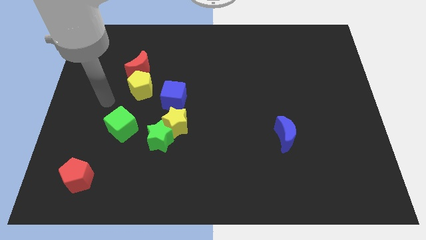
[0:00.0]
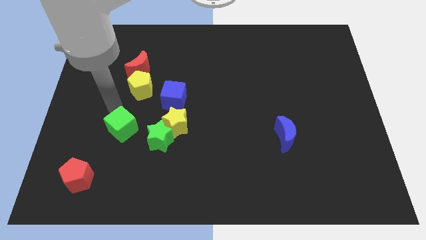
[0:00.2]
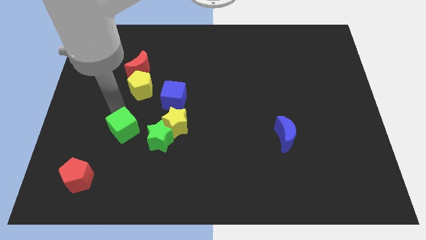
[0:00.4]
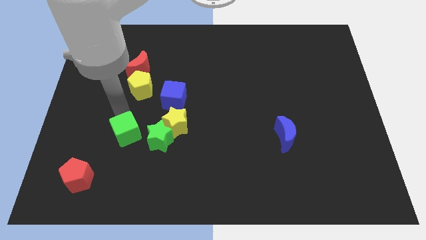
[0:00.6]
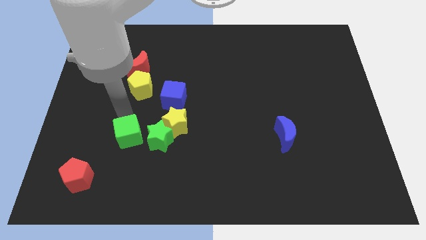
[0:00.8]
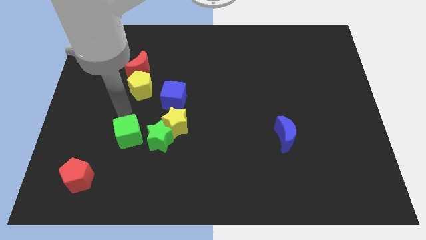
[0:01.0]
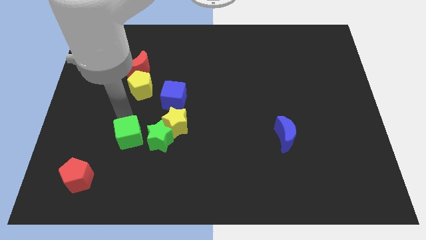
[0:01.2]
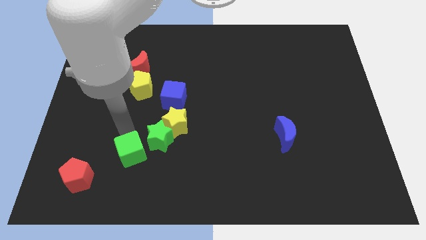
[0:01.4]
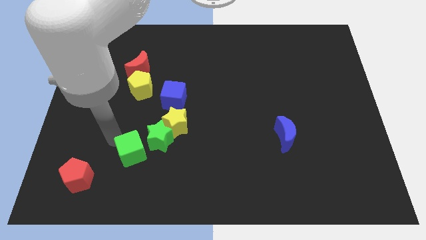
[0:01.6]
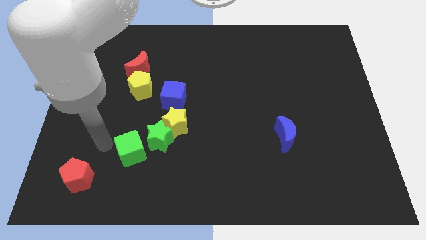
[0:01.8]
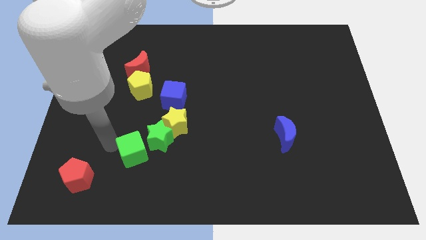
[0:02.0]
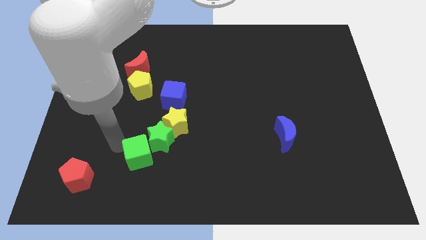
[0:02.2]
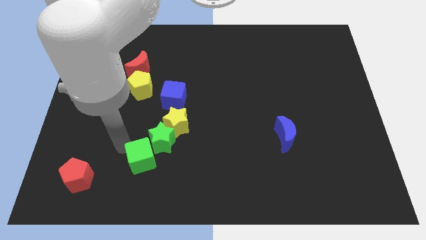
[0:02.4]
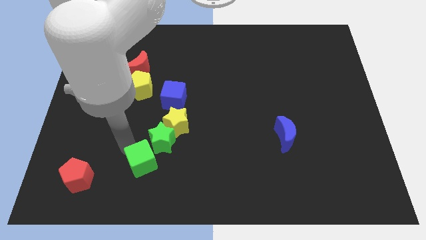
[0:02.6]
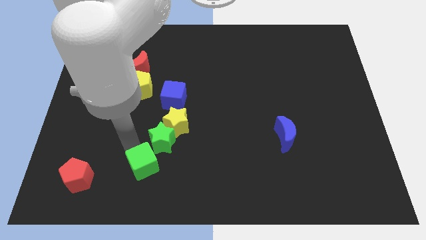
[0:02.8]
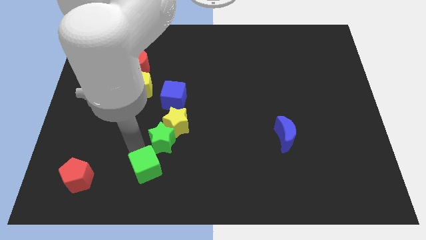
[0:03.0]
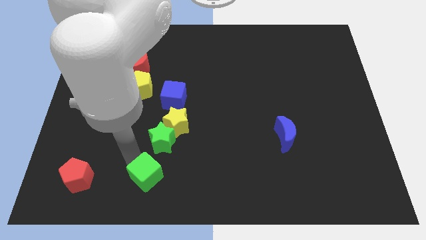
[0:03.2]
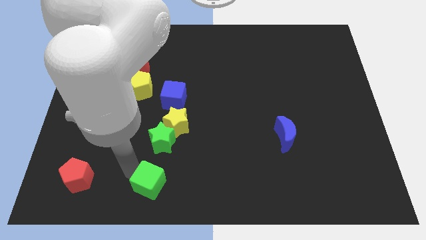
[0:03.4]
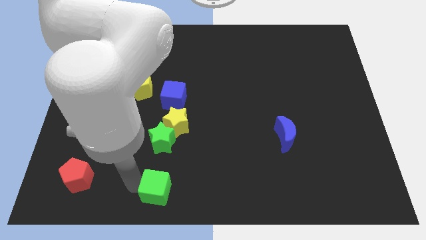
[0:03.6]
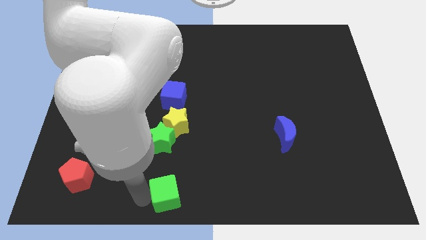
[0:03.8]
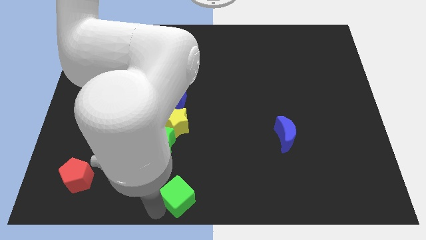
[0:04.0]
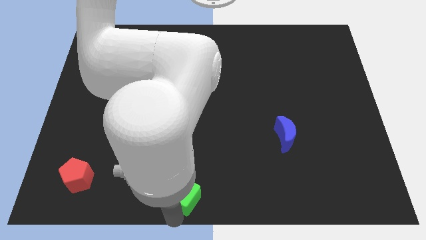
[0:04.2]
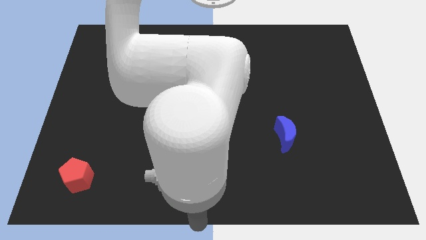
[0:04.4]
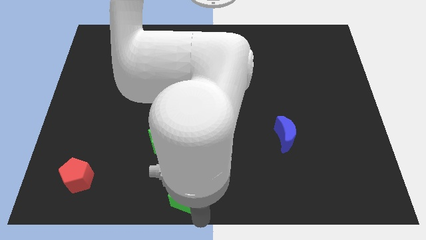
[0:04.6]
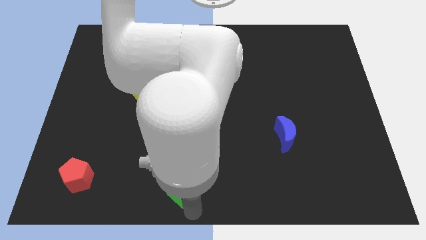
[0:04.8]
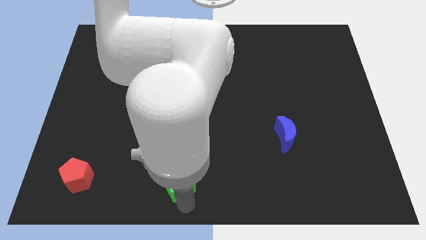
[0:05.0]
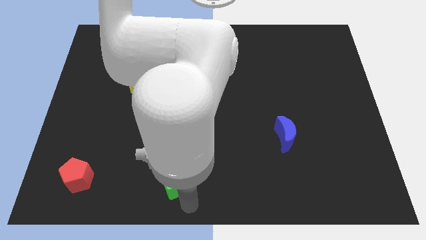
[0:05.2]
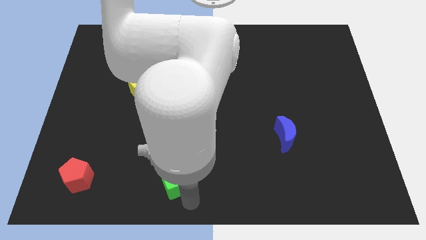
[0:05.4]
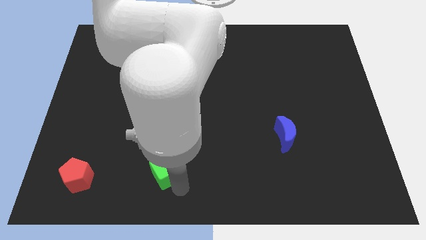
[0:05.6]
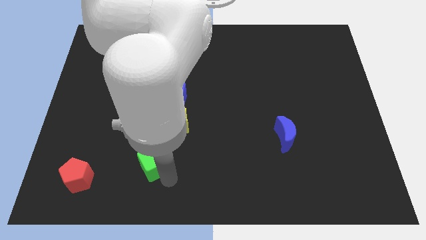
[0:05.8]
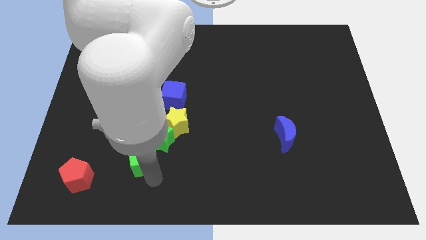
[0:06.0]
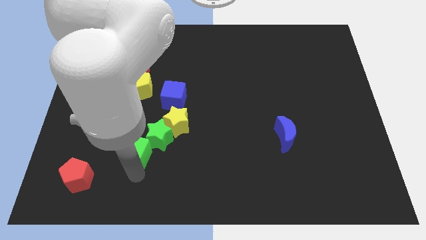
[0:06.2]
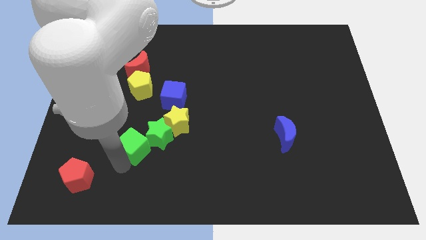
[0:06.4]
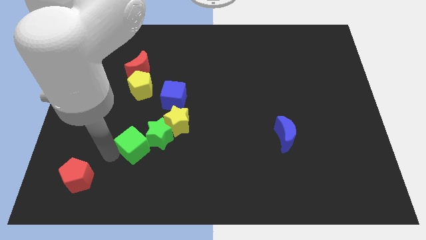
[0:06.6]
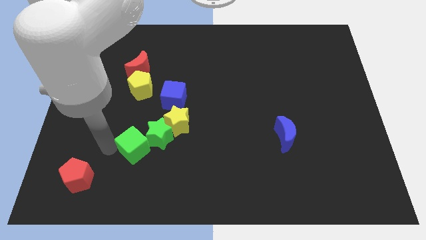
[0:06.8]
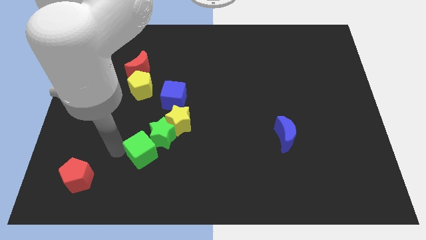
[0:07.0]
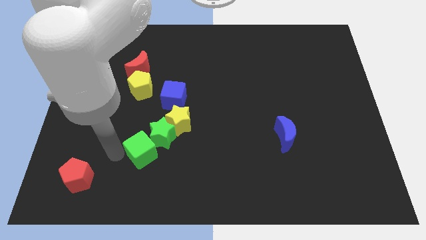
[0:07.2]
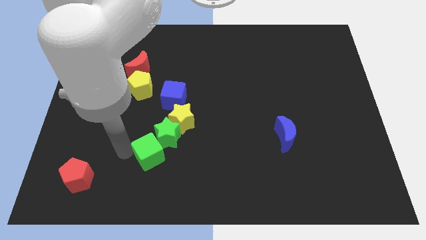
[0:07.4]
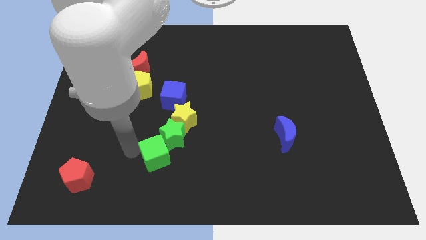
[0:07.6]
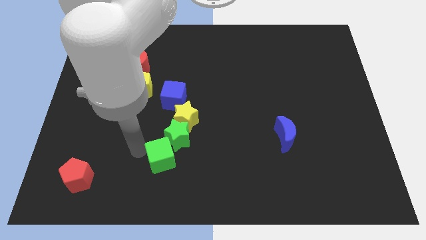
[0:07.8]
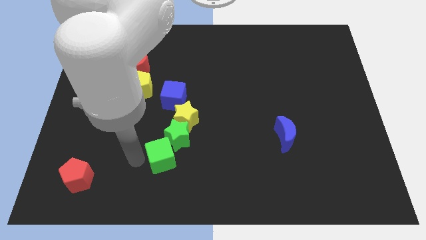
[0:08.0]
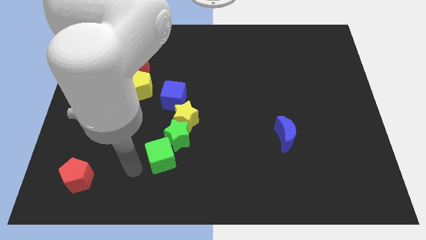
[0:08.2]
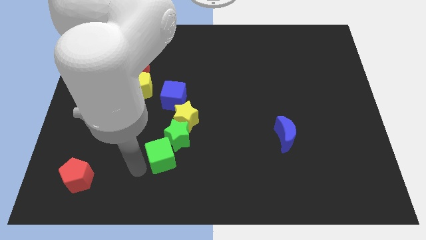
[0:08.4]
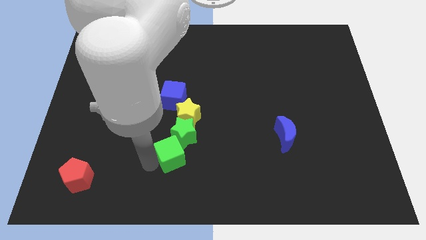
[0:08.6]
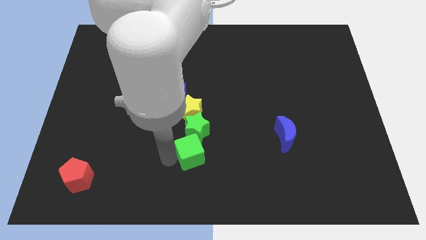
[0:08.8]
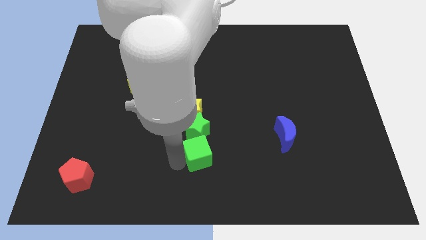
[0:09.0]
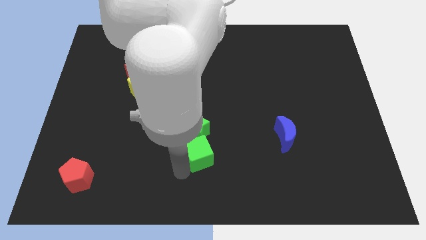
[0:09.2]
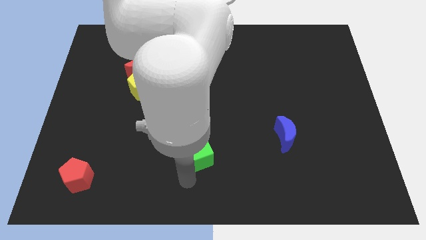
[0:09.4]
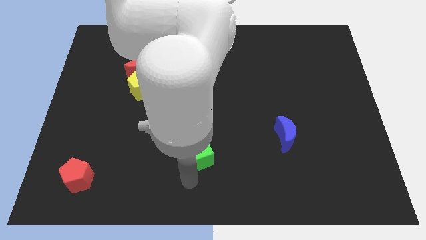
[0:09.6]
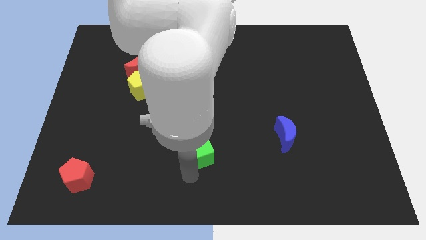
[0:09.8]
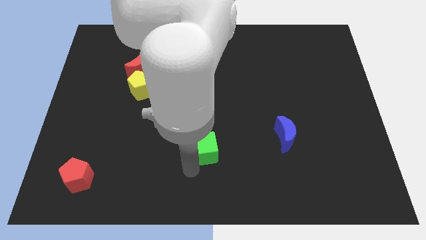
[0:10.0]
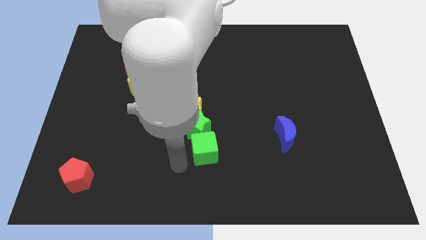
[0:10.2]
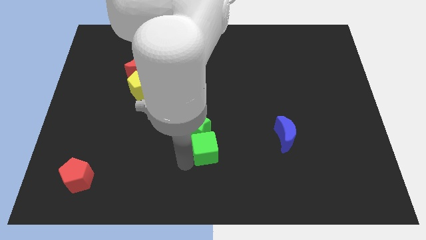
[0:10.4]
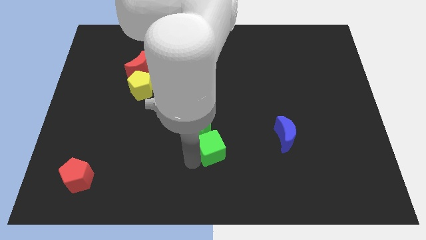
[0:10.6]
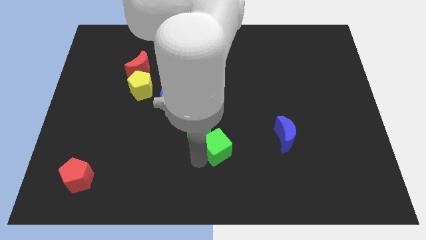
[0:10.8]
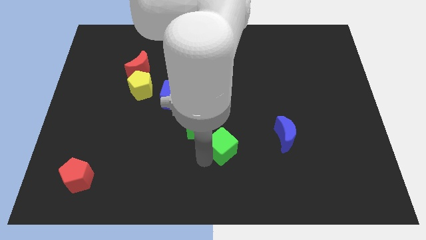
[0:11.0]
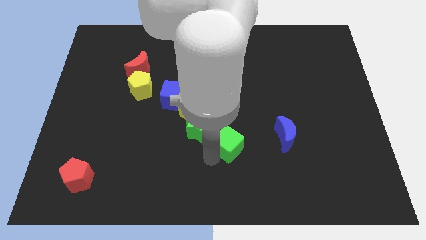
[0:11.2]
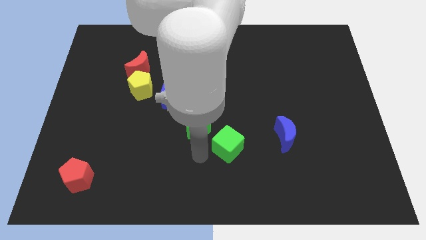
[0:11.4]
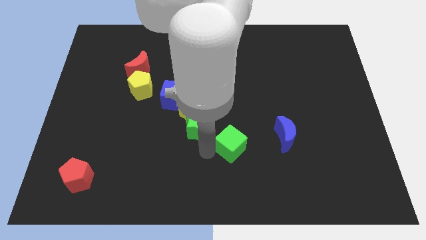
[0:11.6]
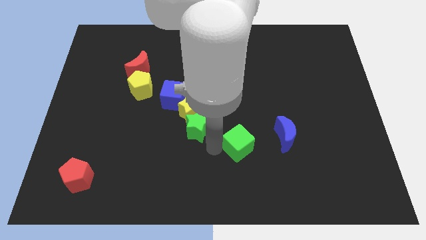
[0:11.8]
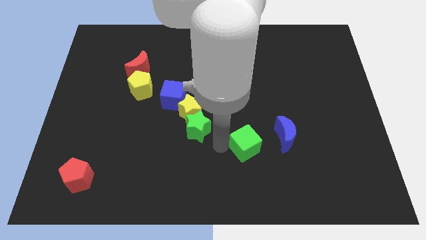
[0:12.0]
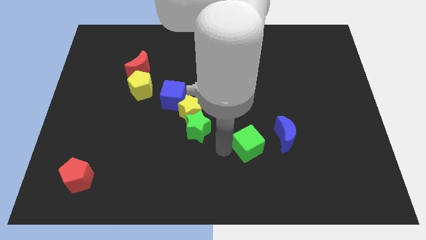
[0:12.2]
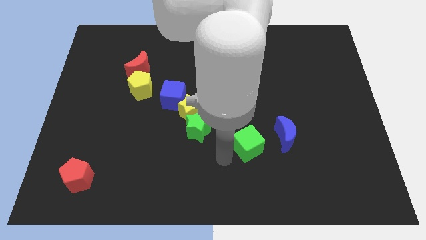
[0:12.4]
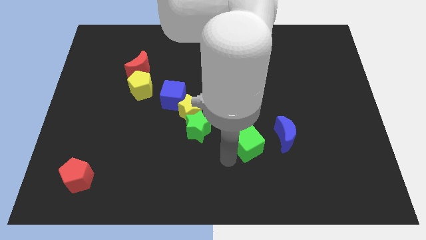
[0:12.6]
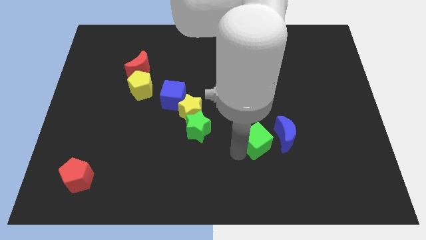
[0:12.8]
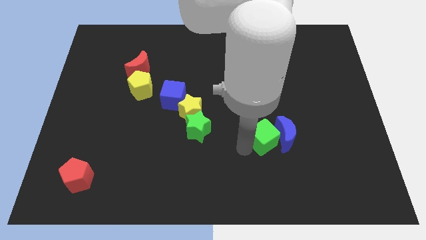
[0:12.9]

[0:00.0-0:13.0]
push the green cube to the blue moon

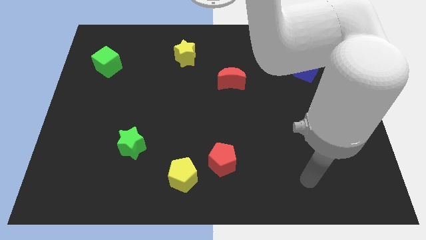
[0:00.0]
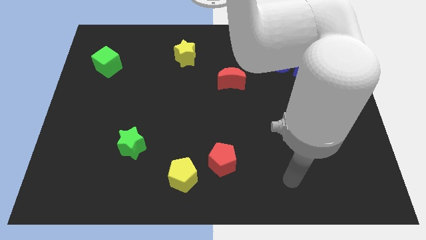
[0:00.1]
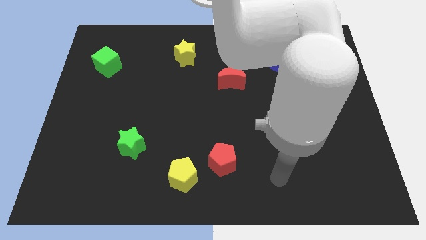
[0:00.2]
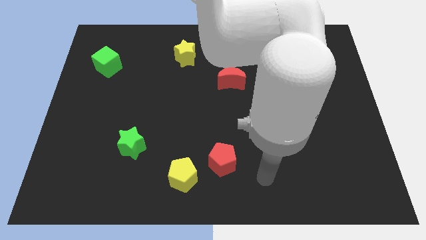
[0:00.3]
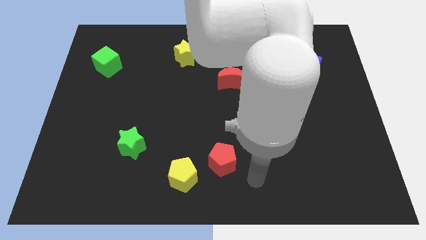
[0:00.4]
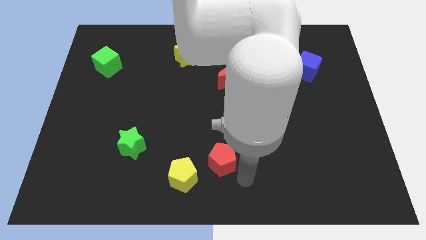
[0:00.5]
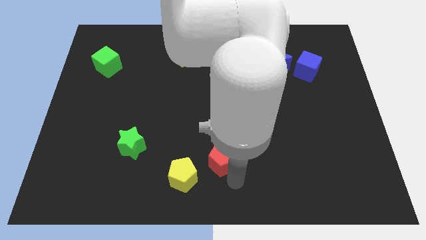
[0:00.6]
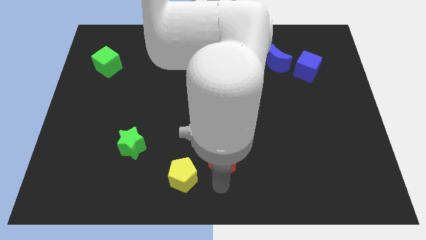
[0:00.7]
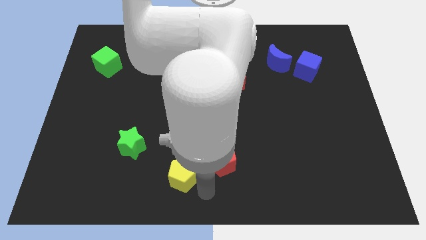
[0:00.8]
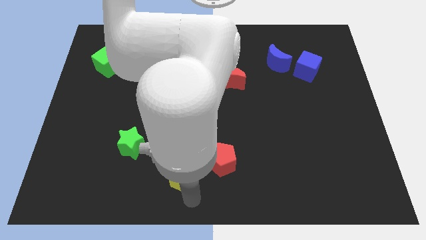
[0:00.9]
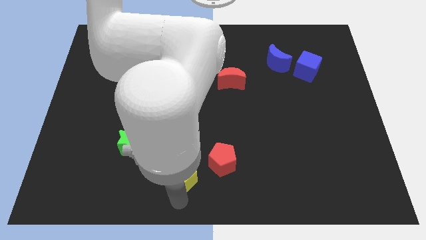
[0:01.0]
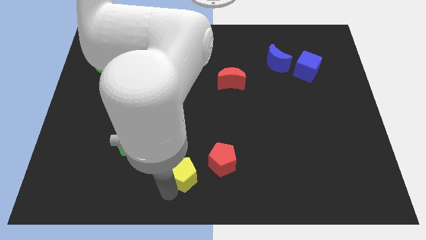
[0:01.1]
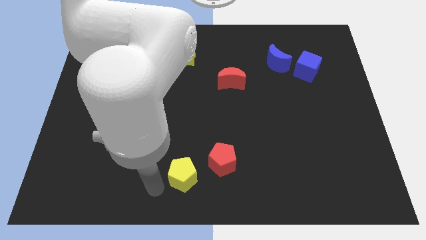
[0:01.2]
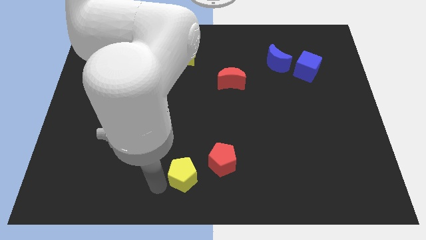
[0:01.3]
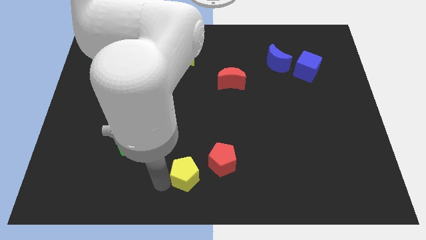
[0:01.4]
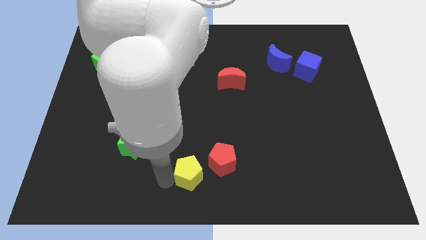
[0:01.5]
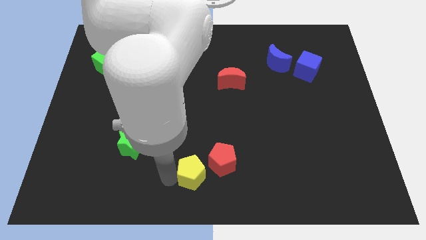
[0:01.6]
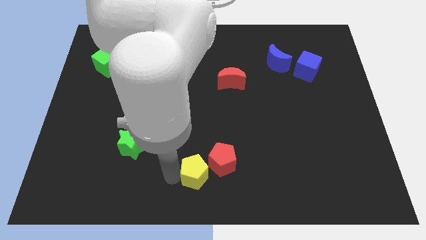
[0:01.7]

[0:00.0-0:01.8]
move the yellow pentagon close to the red pentagon
